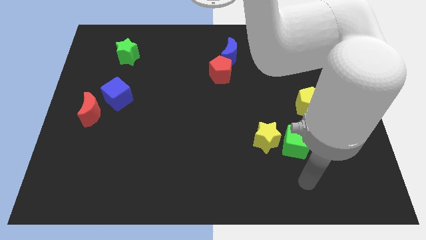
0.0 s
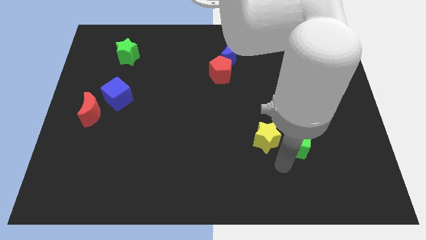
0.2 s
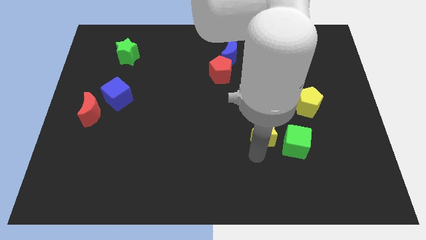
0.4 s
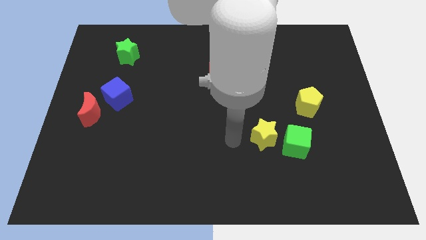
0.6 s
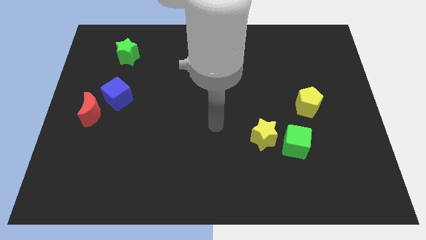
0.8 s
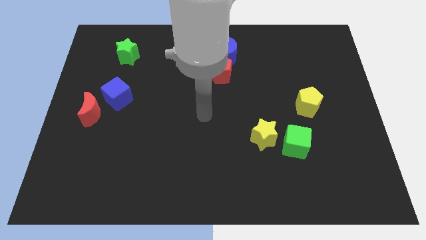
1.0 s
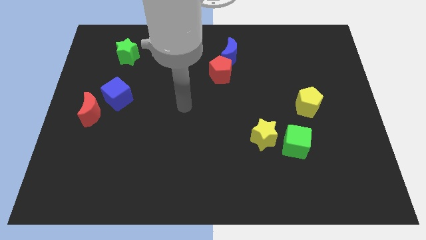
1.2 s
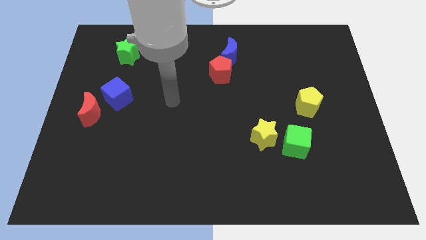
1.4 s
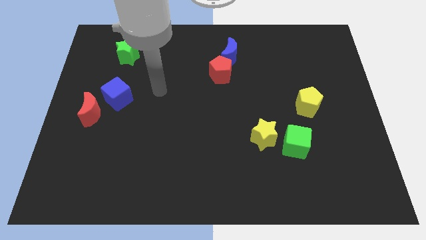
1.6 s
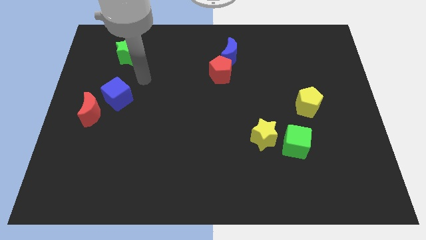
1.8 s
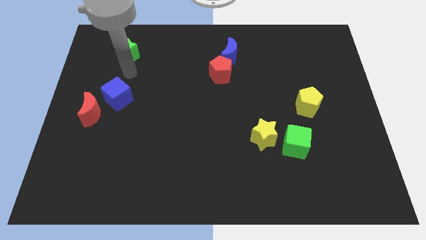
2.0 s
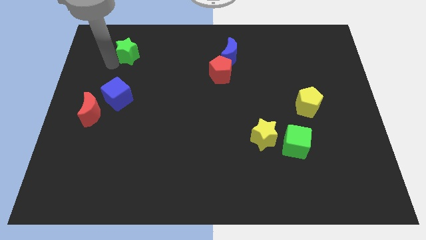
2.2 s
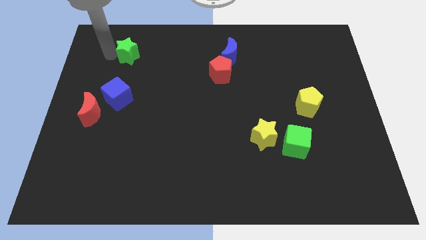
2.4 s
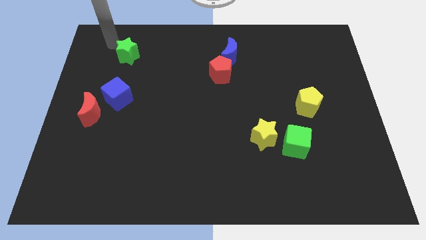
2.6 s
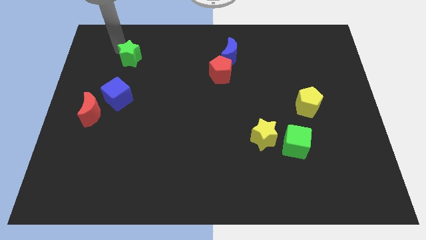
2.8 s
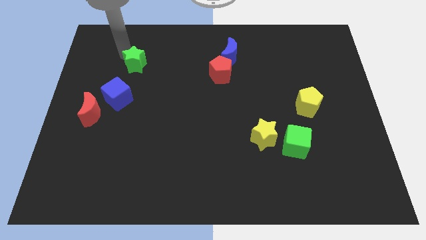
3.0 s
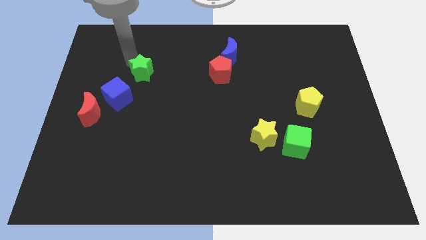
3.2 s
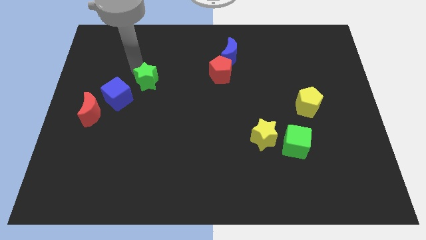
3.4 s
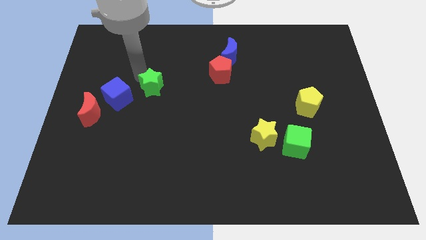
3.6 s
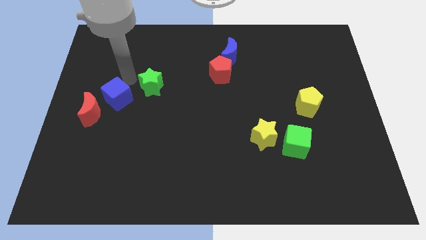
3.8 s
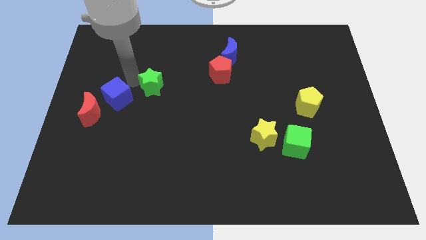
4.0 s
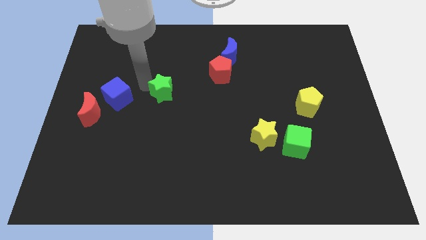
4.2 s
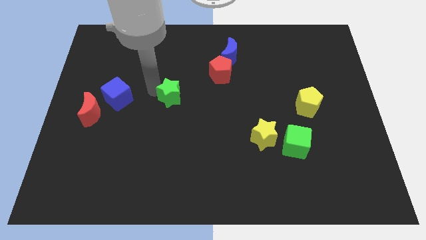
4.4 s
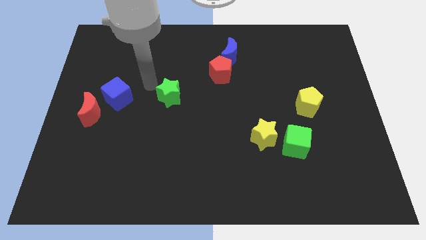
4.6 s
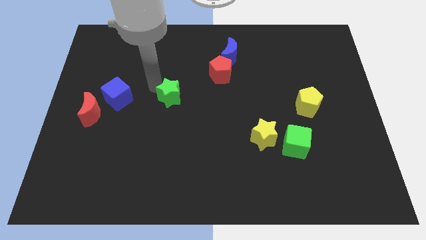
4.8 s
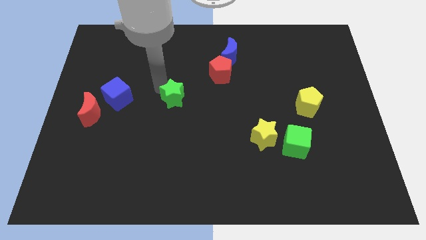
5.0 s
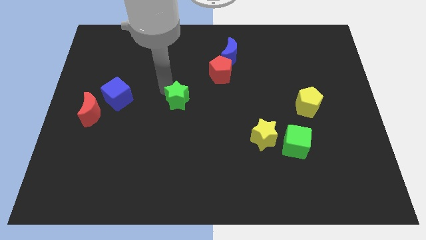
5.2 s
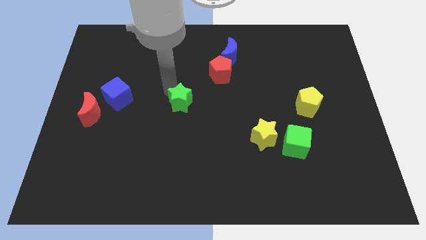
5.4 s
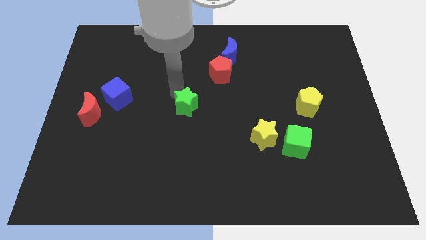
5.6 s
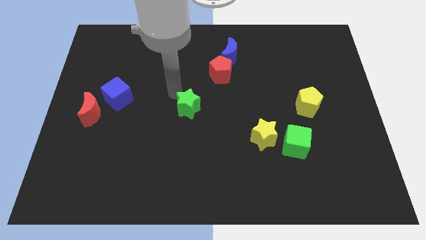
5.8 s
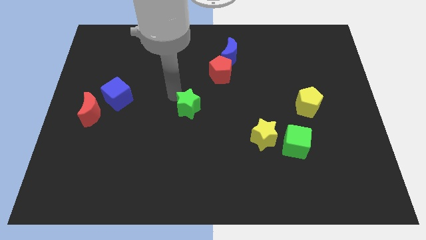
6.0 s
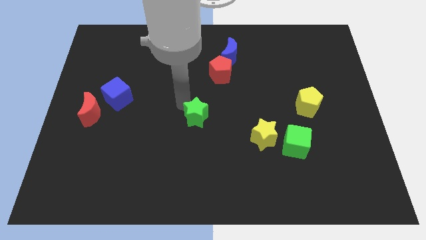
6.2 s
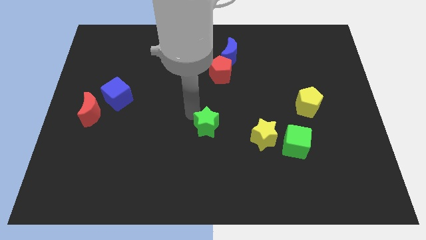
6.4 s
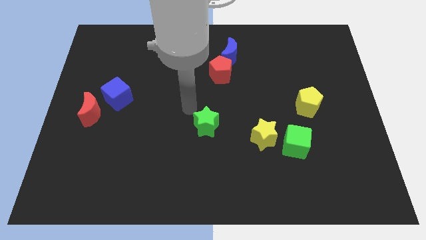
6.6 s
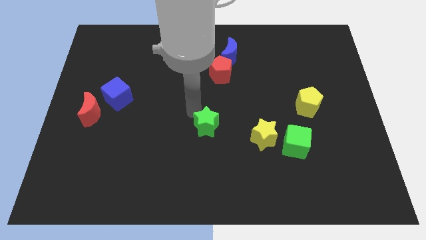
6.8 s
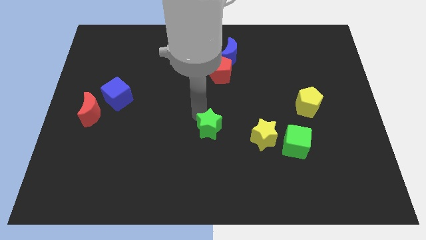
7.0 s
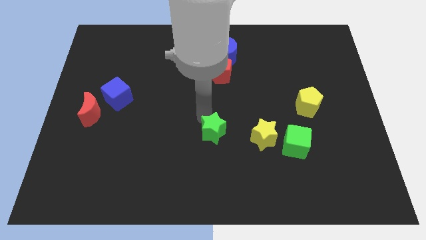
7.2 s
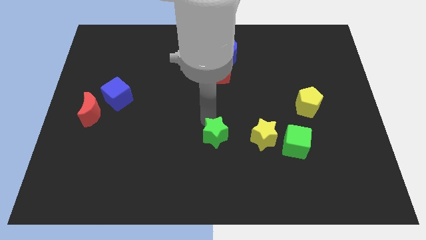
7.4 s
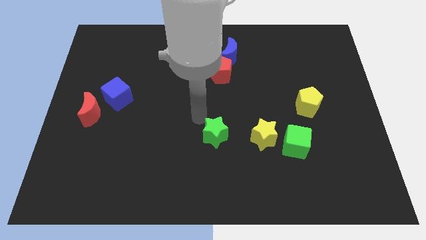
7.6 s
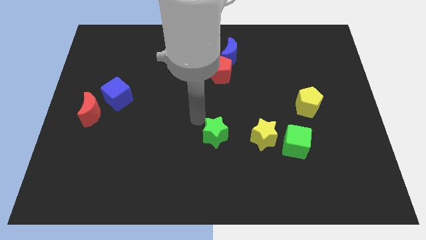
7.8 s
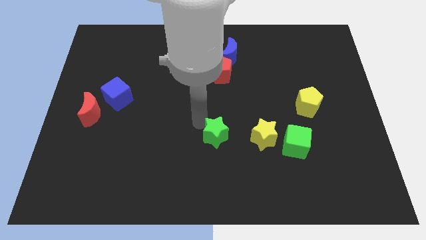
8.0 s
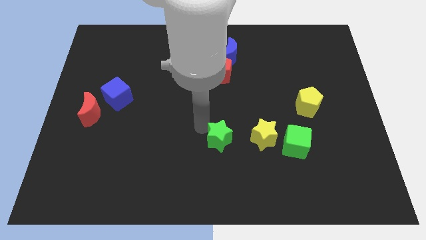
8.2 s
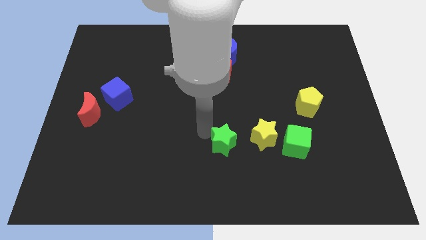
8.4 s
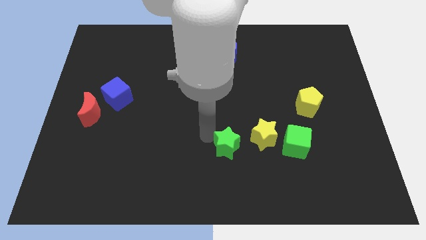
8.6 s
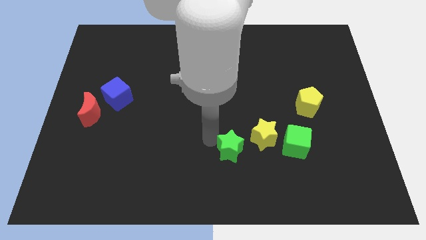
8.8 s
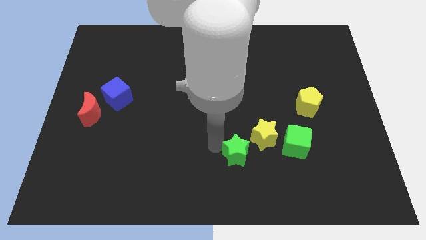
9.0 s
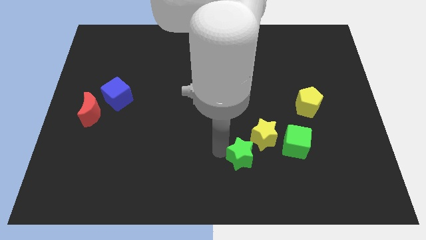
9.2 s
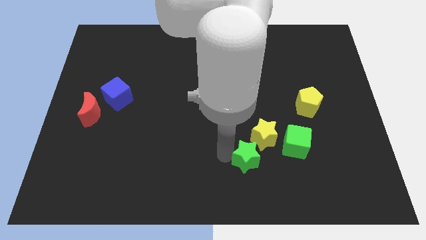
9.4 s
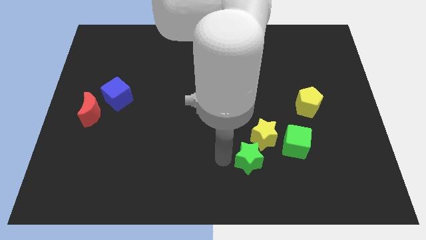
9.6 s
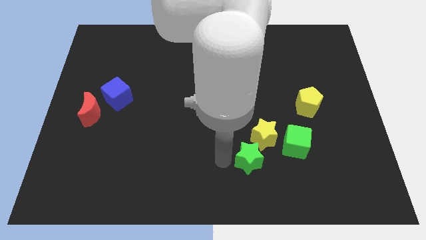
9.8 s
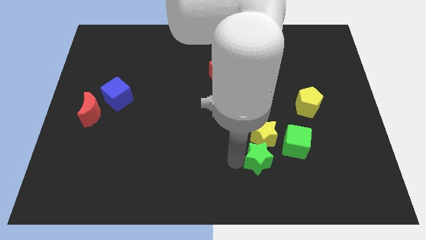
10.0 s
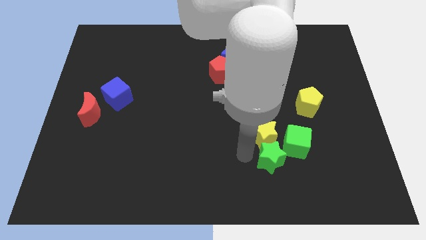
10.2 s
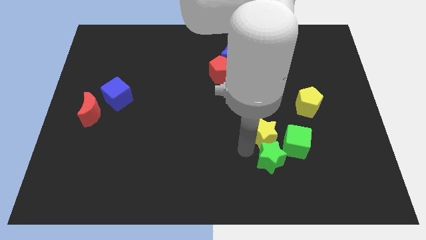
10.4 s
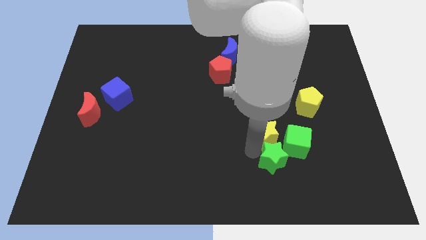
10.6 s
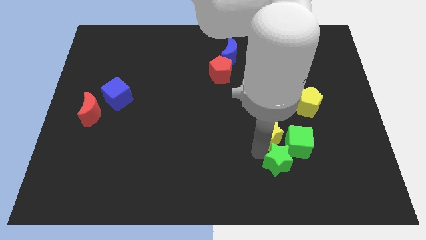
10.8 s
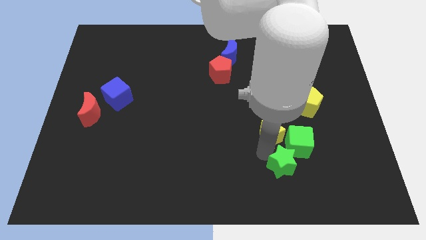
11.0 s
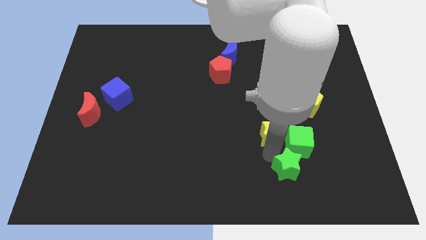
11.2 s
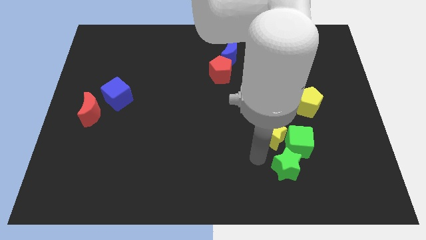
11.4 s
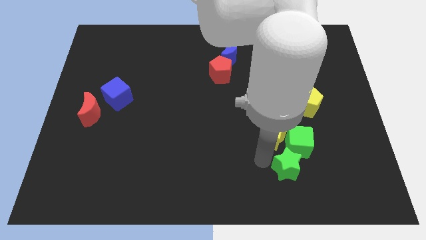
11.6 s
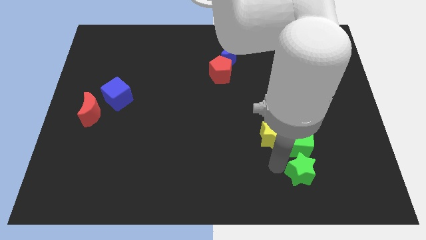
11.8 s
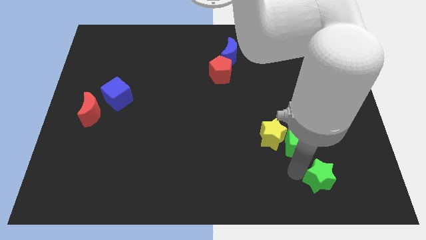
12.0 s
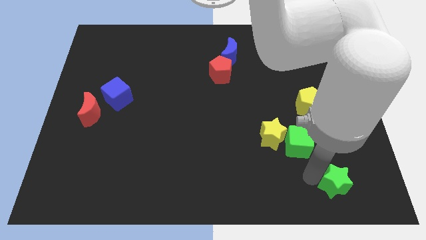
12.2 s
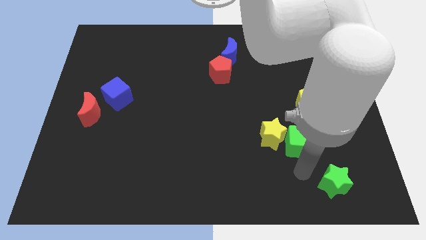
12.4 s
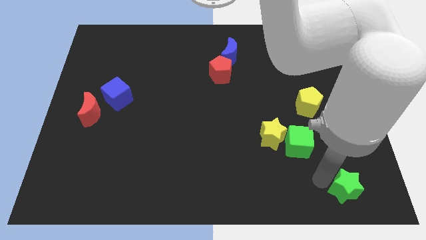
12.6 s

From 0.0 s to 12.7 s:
push the green star to the bottom right corner

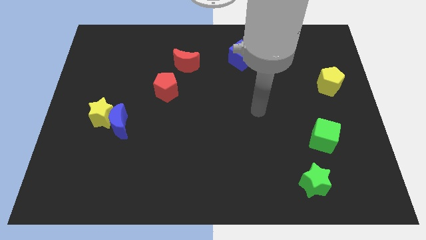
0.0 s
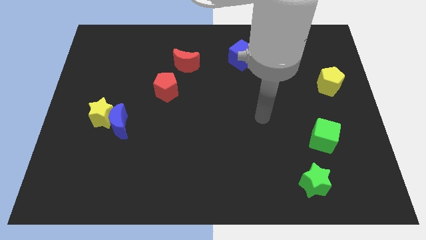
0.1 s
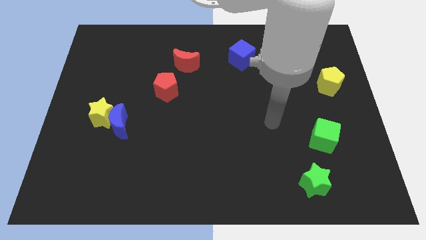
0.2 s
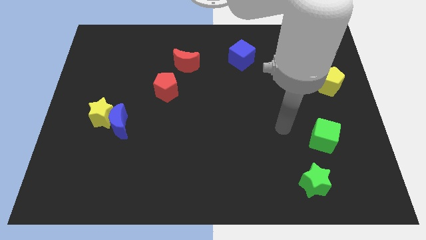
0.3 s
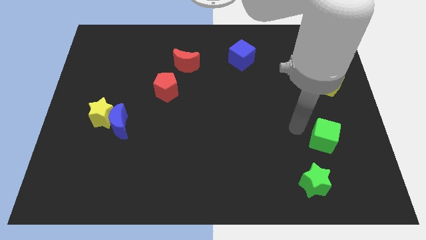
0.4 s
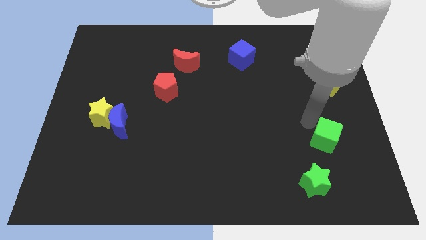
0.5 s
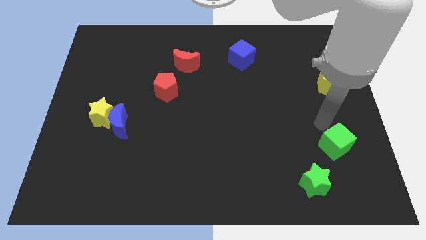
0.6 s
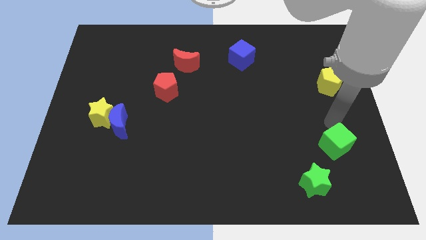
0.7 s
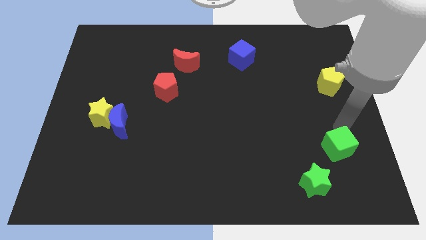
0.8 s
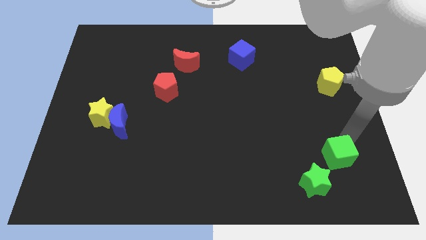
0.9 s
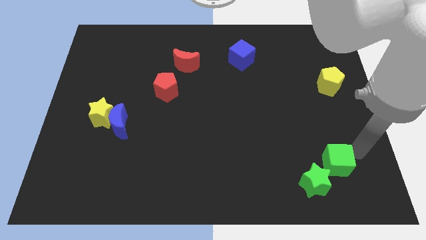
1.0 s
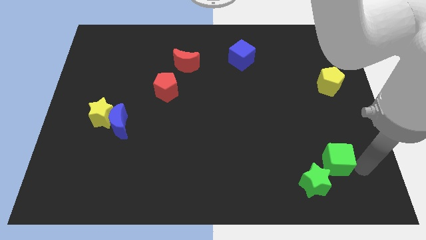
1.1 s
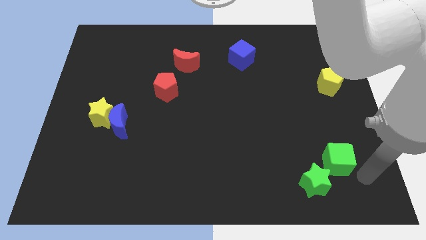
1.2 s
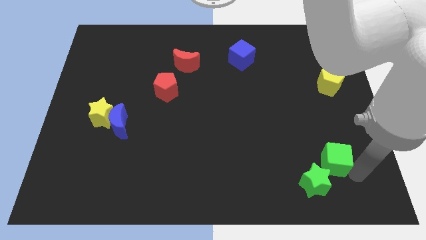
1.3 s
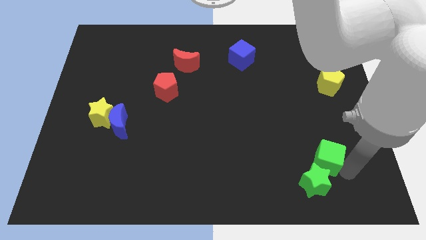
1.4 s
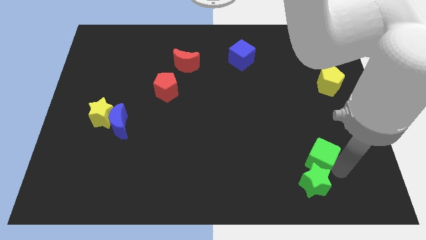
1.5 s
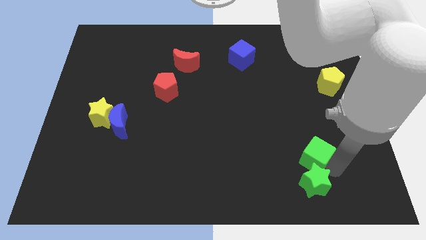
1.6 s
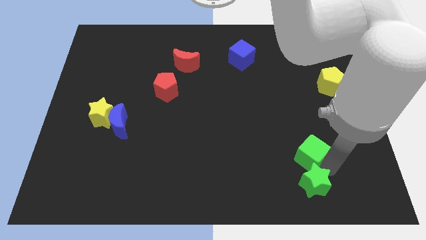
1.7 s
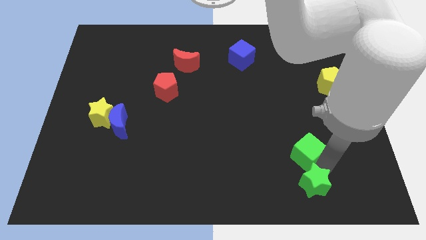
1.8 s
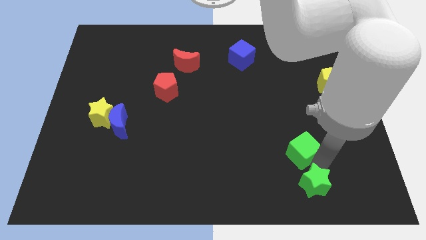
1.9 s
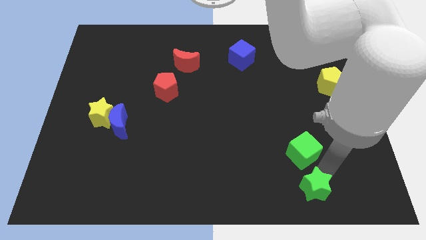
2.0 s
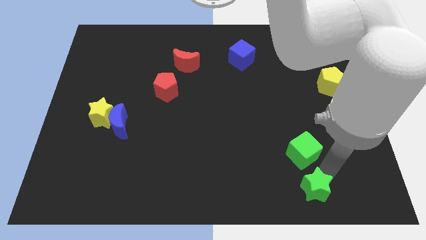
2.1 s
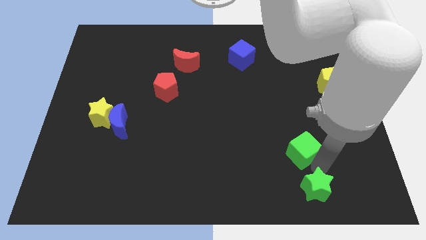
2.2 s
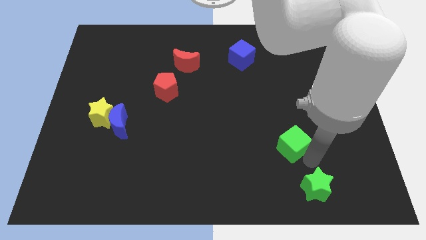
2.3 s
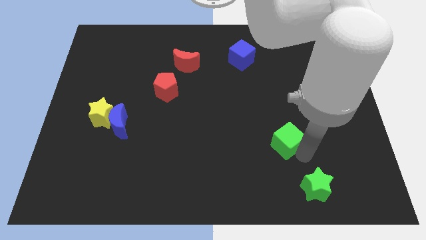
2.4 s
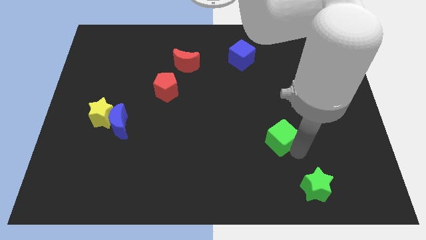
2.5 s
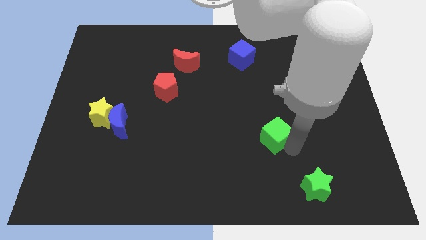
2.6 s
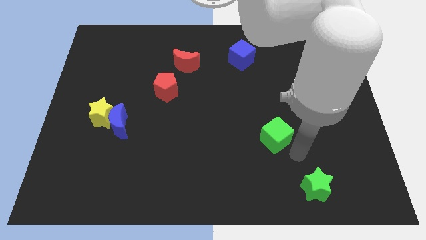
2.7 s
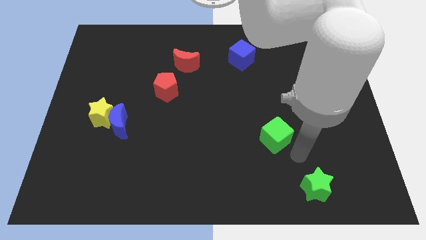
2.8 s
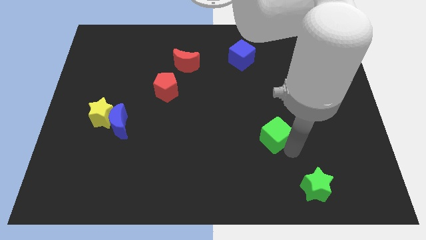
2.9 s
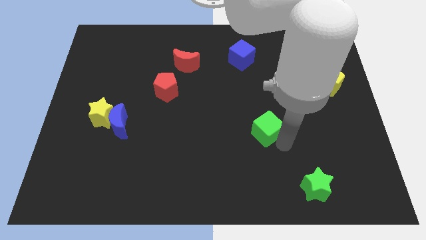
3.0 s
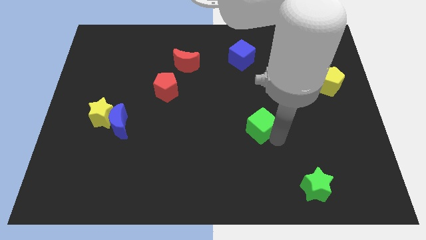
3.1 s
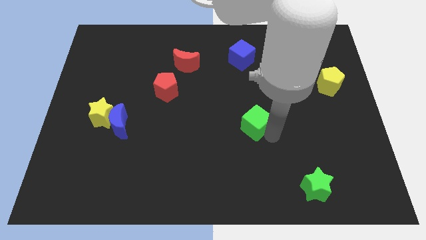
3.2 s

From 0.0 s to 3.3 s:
push the green cube to the center
